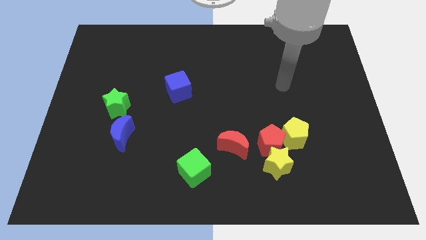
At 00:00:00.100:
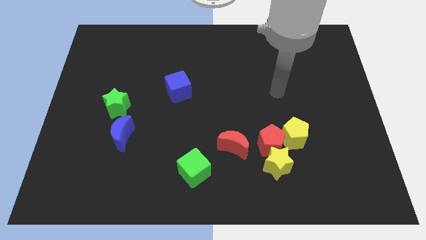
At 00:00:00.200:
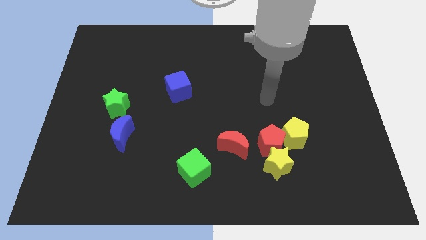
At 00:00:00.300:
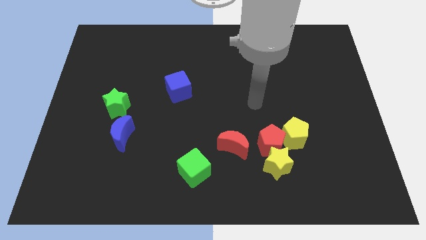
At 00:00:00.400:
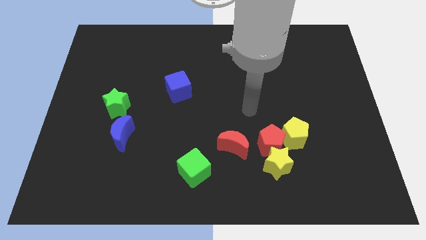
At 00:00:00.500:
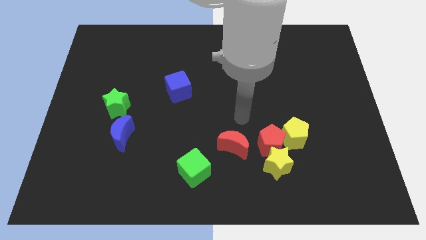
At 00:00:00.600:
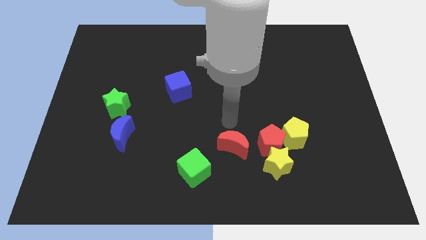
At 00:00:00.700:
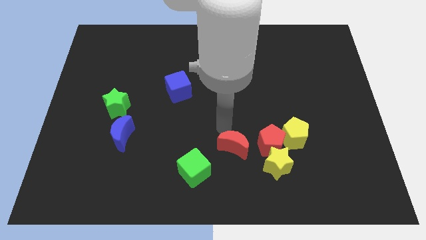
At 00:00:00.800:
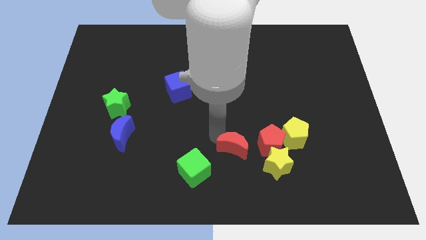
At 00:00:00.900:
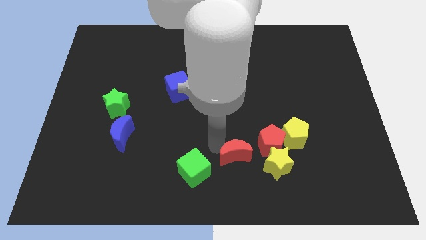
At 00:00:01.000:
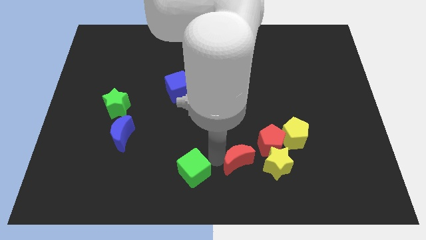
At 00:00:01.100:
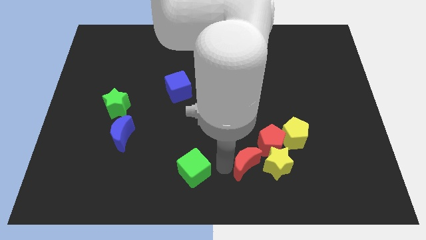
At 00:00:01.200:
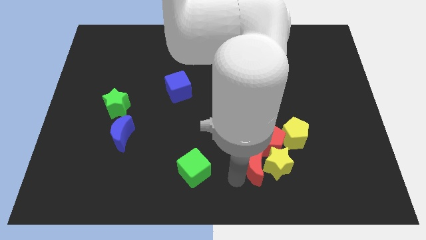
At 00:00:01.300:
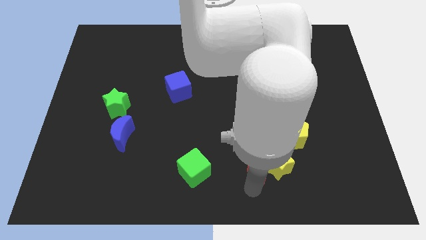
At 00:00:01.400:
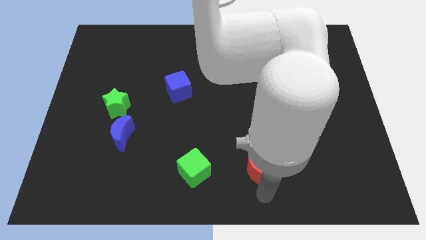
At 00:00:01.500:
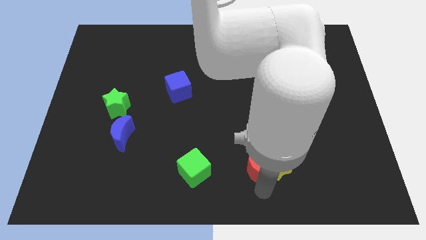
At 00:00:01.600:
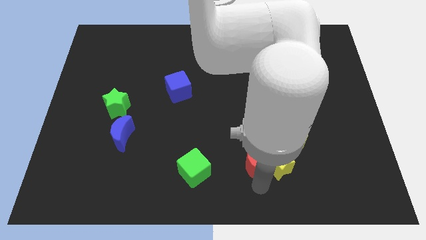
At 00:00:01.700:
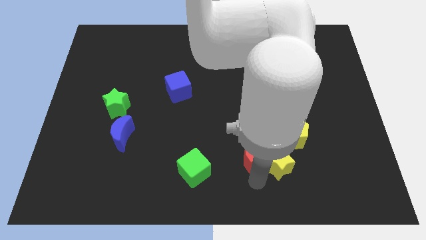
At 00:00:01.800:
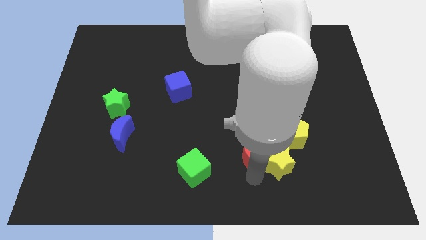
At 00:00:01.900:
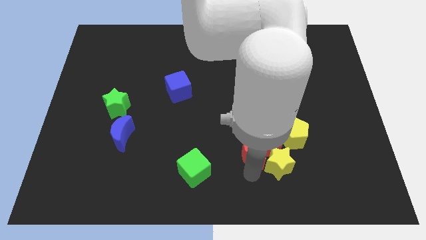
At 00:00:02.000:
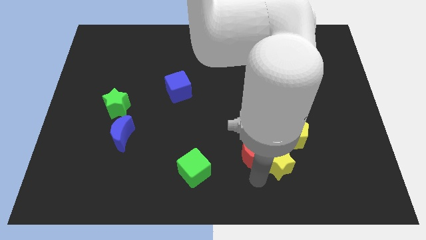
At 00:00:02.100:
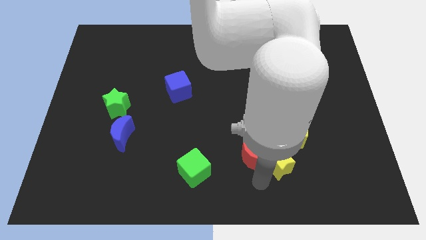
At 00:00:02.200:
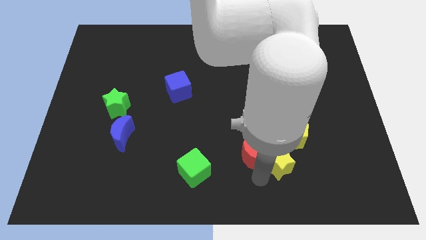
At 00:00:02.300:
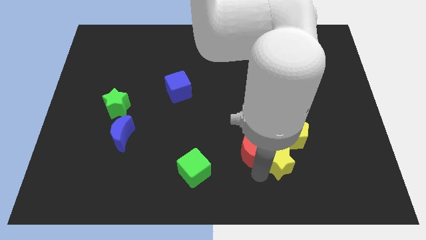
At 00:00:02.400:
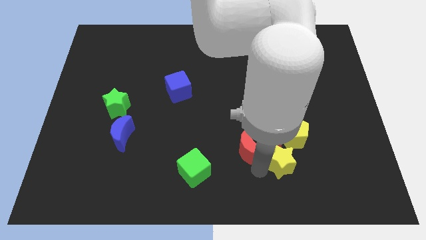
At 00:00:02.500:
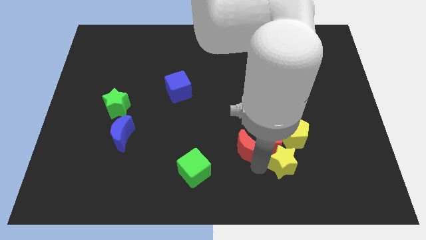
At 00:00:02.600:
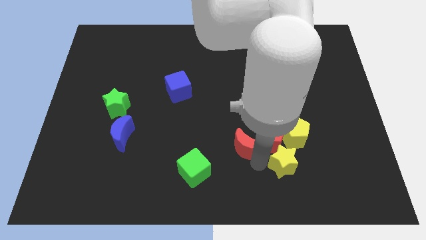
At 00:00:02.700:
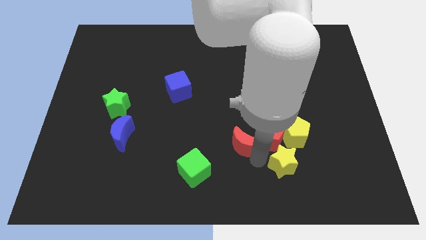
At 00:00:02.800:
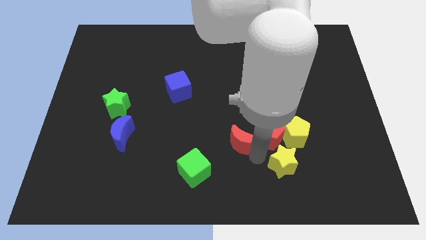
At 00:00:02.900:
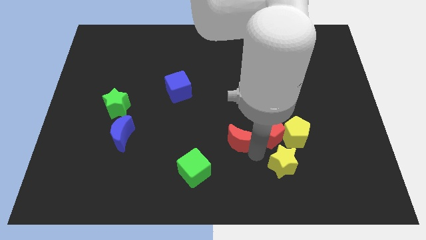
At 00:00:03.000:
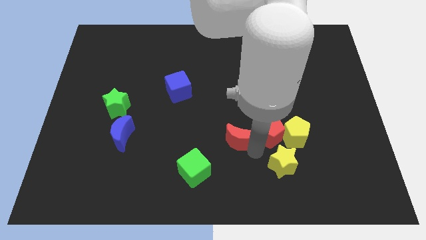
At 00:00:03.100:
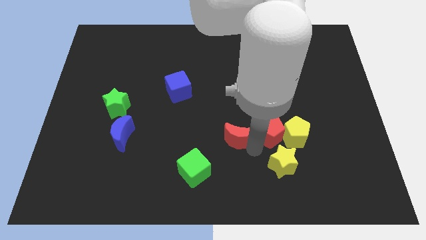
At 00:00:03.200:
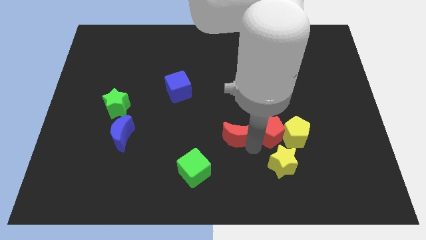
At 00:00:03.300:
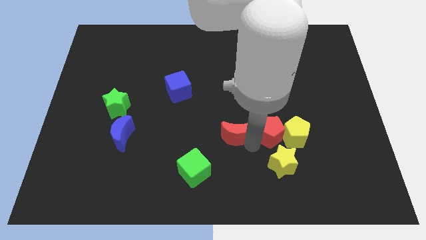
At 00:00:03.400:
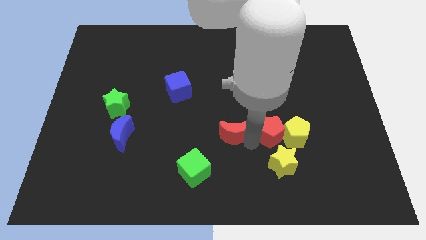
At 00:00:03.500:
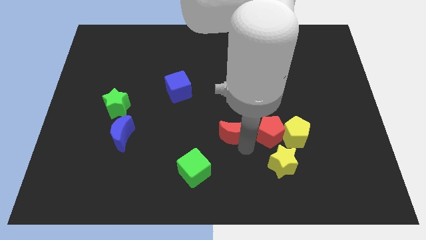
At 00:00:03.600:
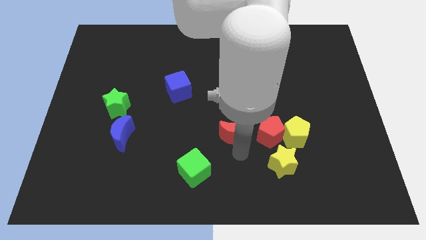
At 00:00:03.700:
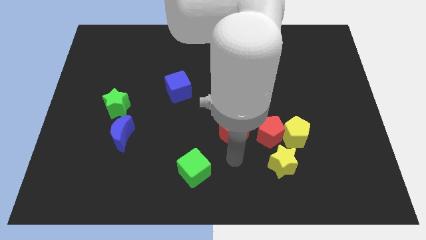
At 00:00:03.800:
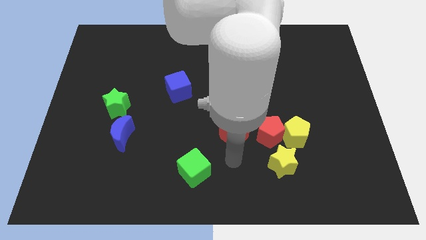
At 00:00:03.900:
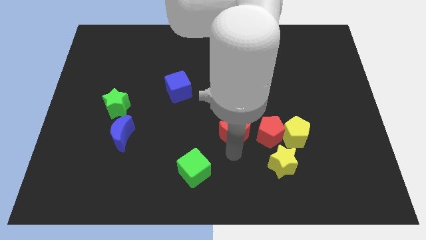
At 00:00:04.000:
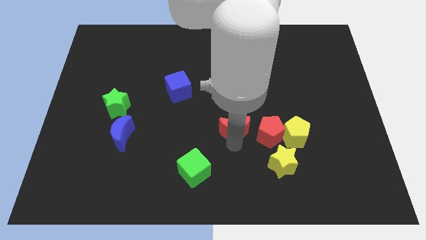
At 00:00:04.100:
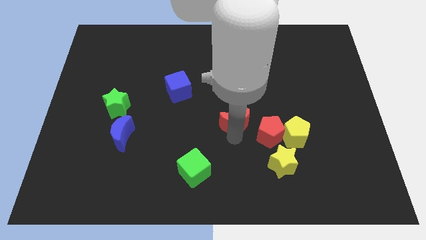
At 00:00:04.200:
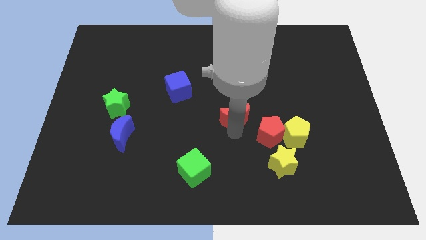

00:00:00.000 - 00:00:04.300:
slightly slide the red moon up

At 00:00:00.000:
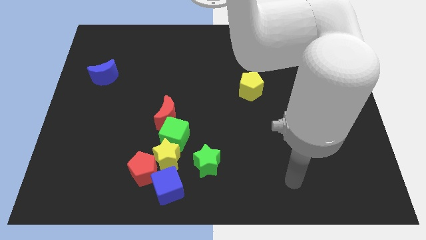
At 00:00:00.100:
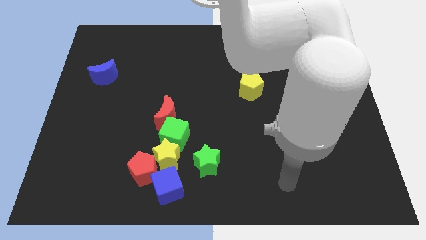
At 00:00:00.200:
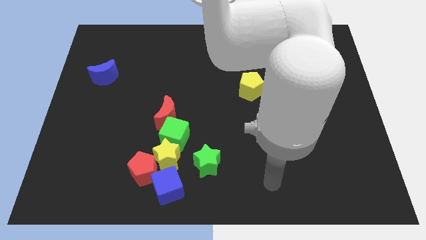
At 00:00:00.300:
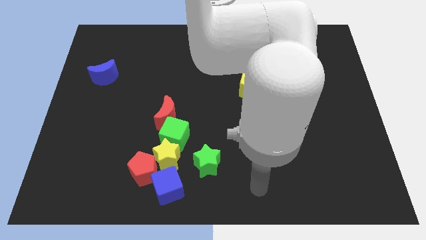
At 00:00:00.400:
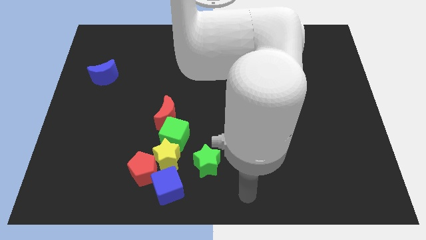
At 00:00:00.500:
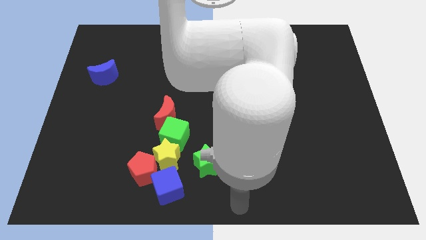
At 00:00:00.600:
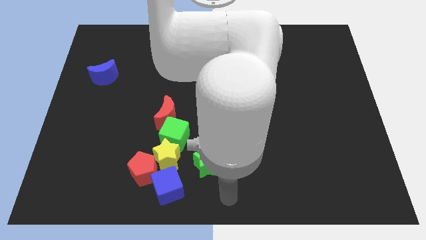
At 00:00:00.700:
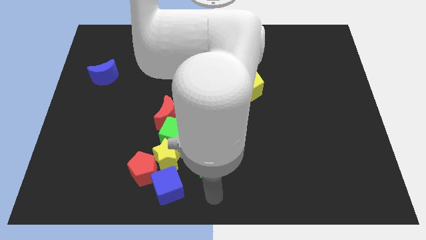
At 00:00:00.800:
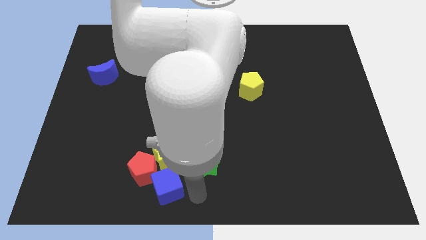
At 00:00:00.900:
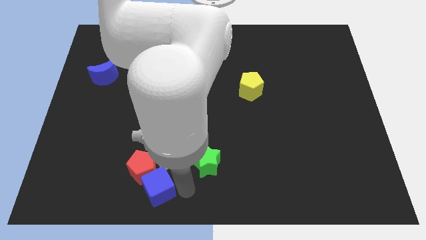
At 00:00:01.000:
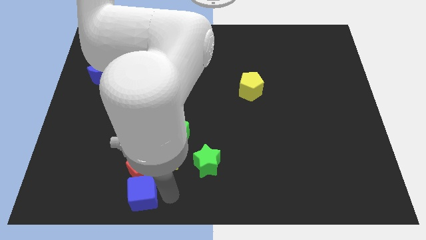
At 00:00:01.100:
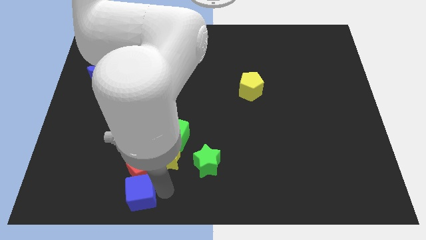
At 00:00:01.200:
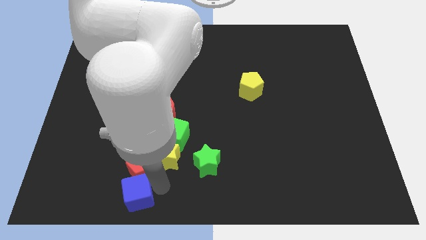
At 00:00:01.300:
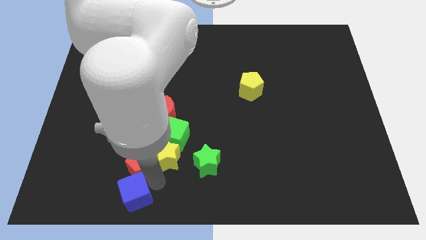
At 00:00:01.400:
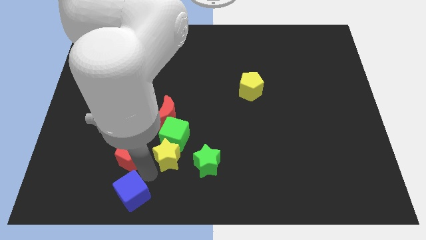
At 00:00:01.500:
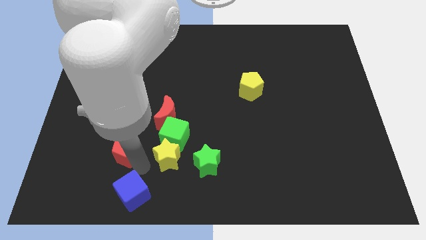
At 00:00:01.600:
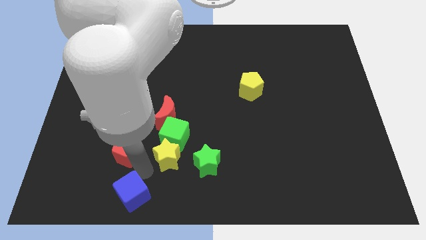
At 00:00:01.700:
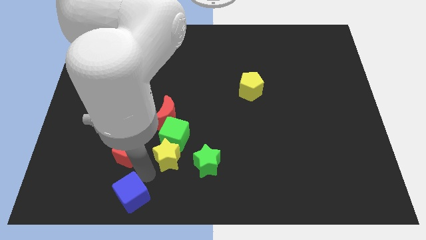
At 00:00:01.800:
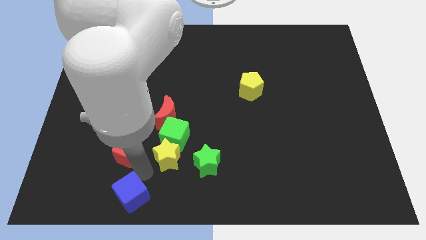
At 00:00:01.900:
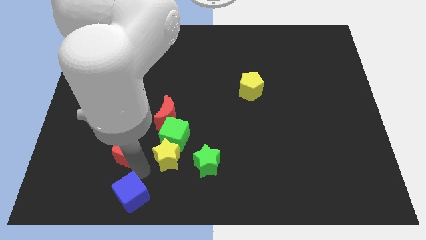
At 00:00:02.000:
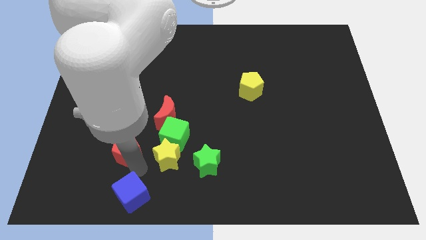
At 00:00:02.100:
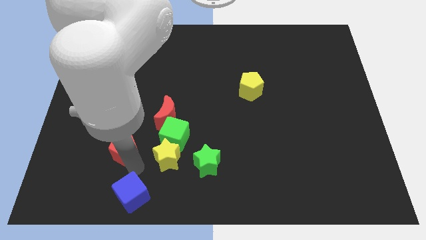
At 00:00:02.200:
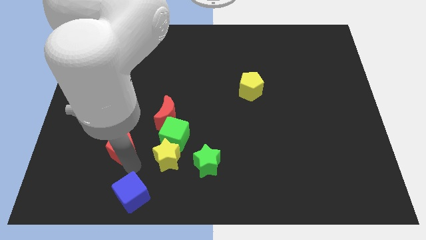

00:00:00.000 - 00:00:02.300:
move the red pentagon up and to the left a little

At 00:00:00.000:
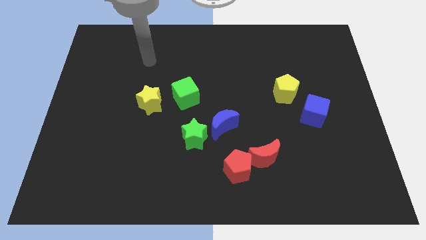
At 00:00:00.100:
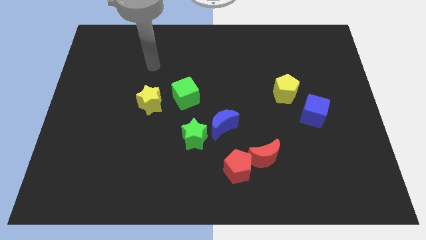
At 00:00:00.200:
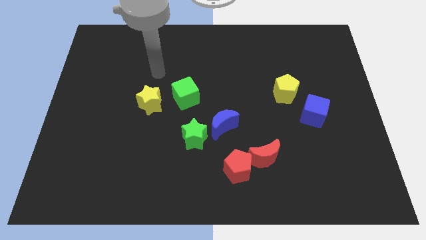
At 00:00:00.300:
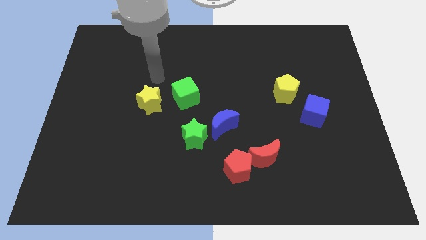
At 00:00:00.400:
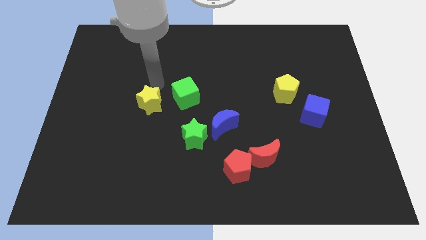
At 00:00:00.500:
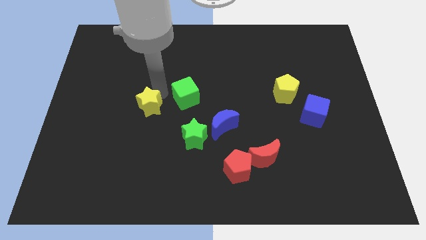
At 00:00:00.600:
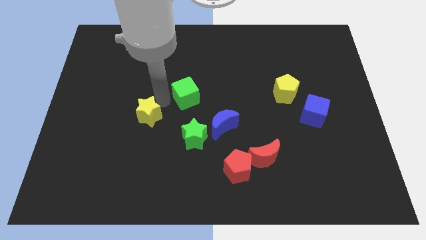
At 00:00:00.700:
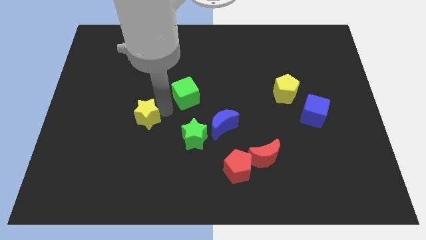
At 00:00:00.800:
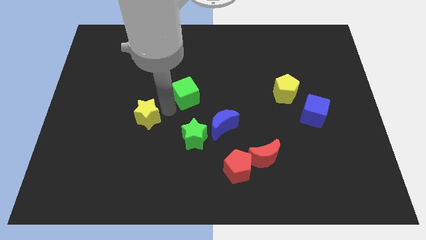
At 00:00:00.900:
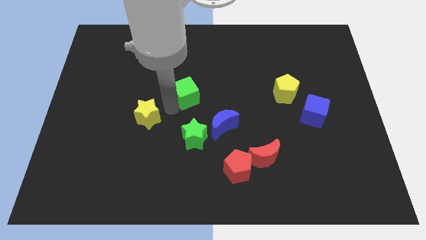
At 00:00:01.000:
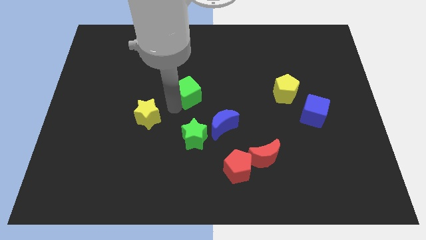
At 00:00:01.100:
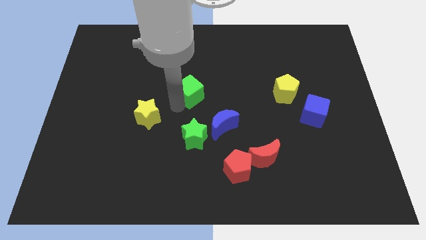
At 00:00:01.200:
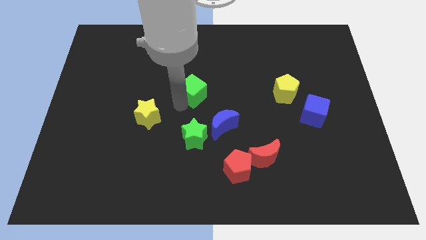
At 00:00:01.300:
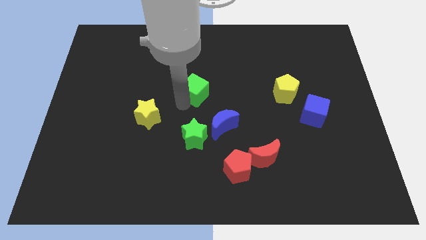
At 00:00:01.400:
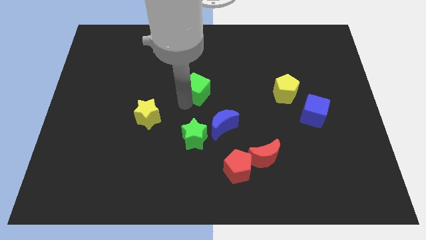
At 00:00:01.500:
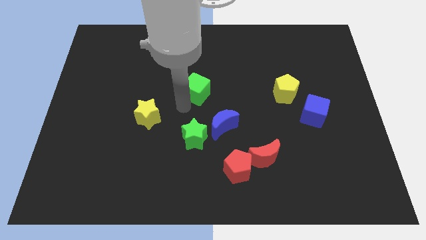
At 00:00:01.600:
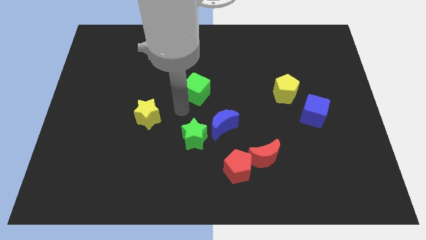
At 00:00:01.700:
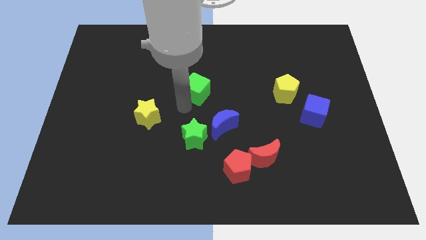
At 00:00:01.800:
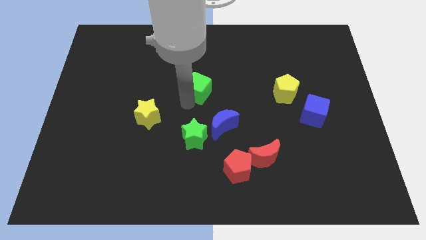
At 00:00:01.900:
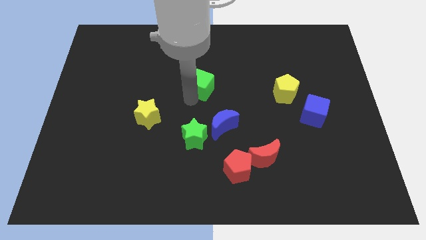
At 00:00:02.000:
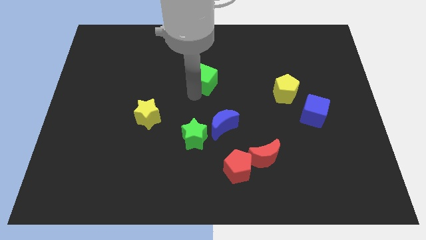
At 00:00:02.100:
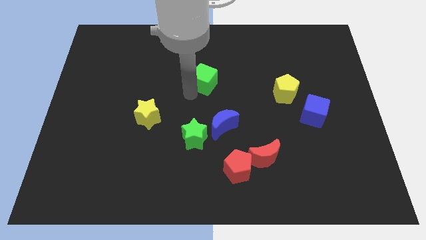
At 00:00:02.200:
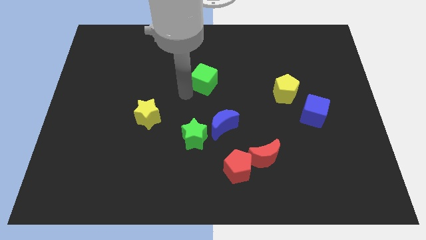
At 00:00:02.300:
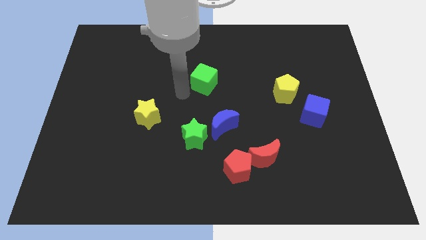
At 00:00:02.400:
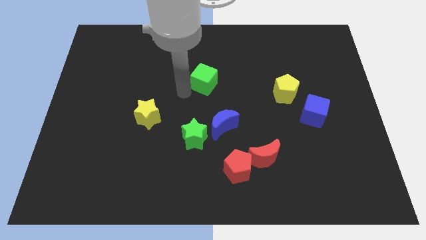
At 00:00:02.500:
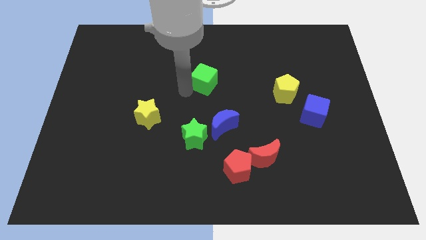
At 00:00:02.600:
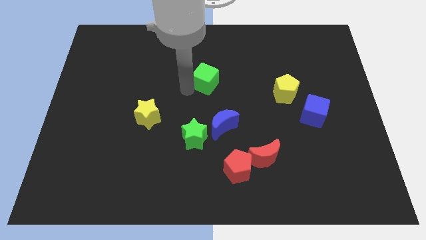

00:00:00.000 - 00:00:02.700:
push the green cube up and to the right diagonally a little
